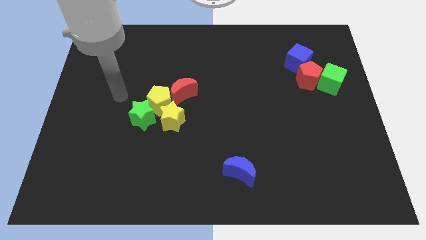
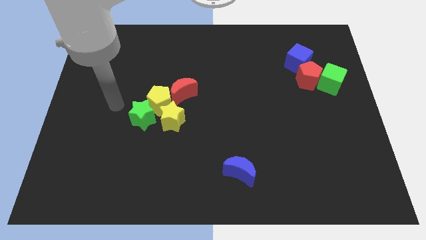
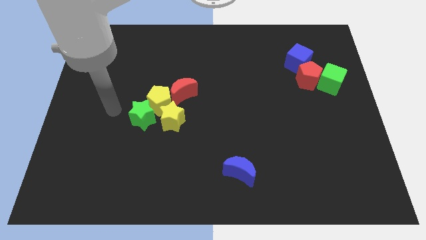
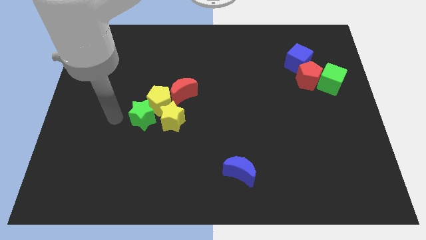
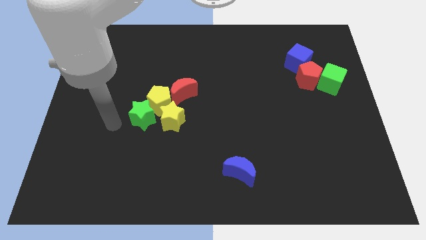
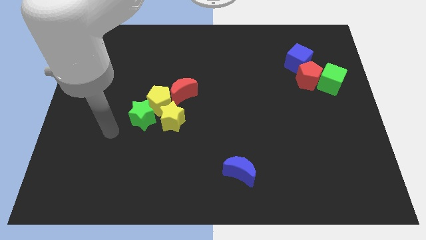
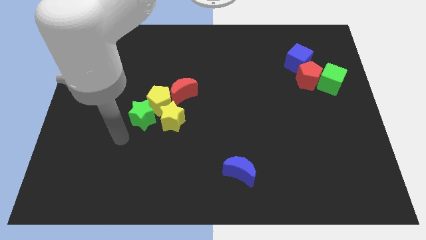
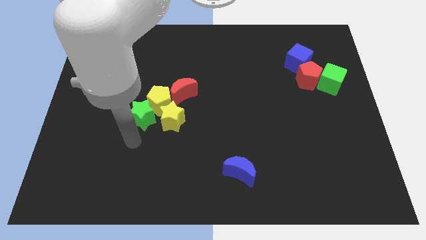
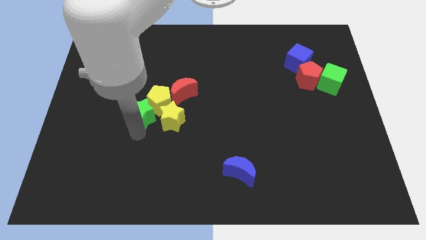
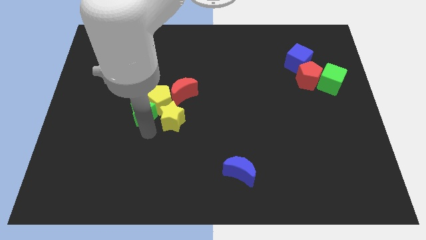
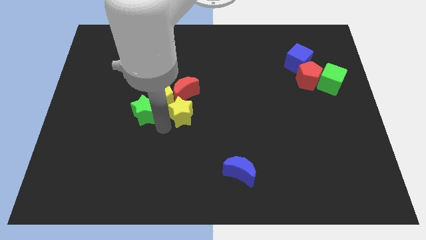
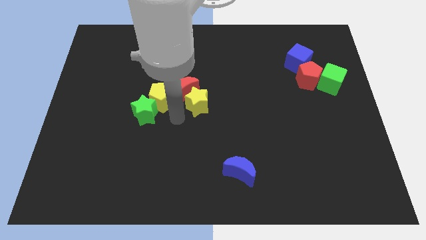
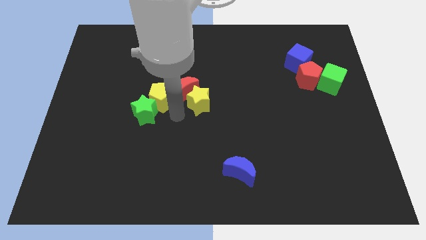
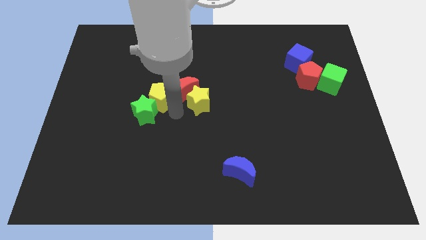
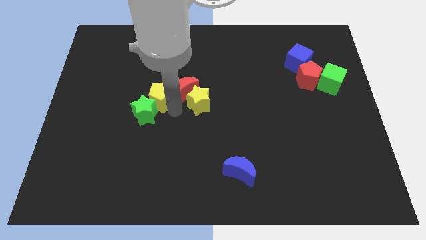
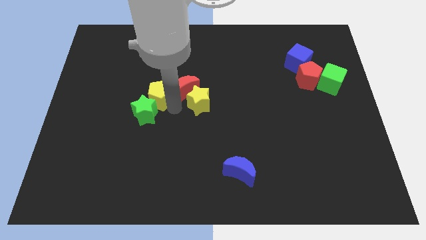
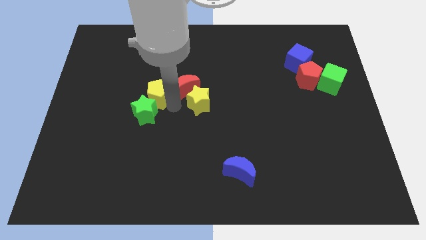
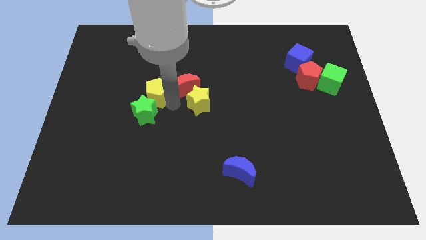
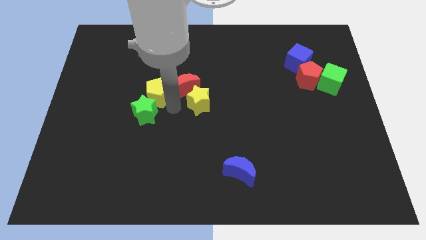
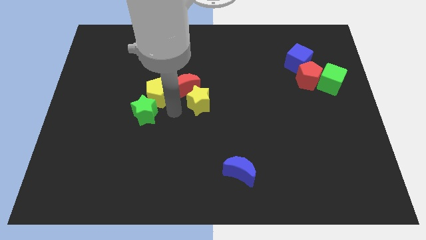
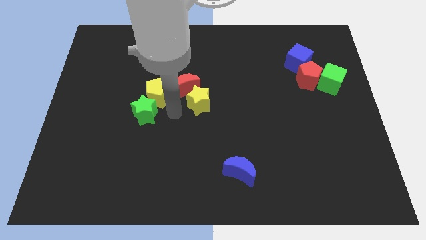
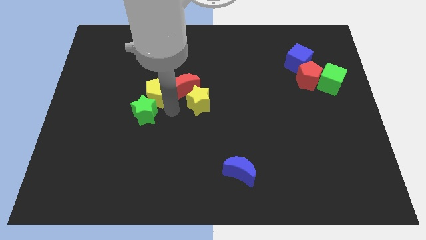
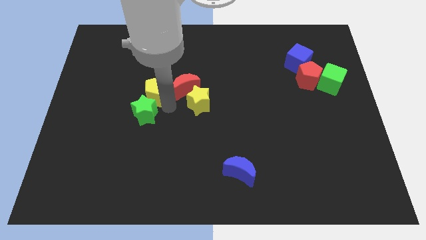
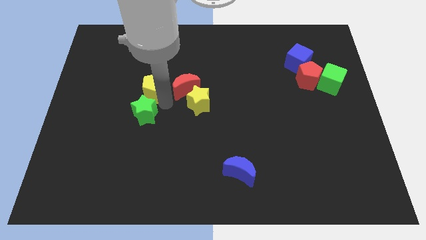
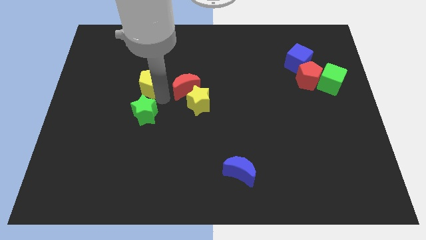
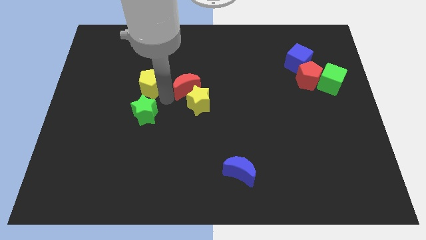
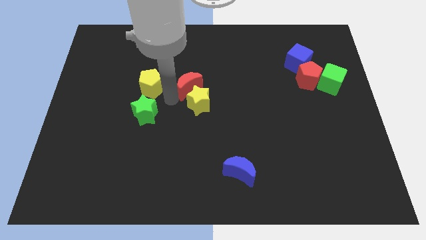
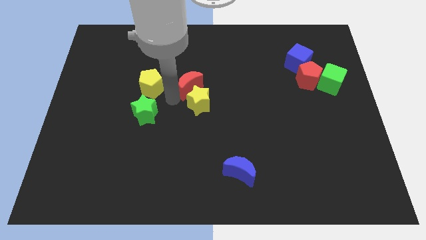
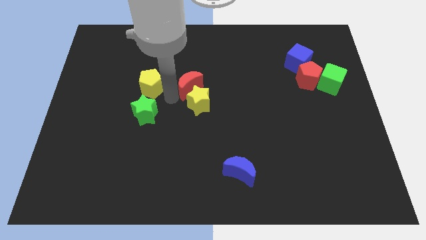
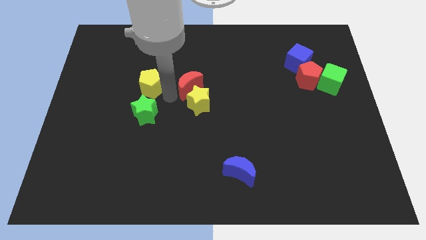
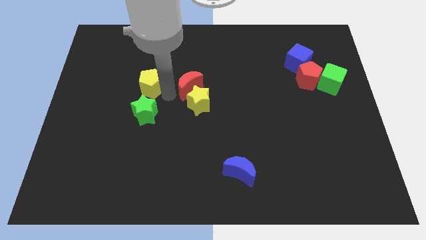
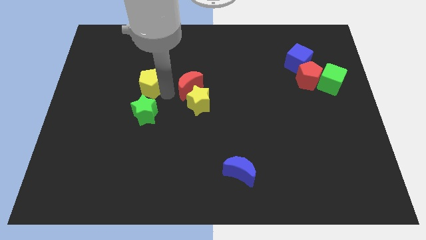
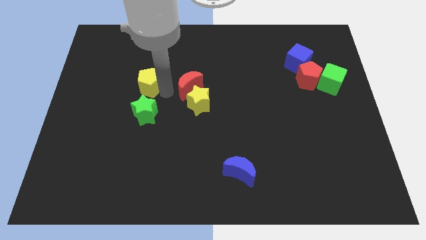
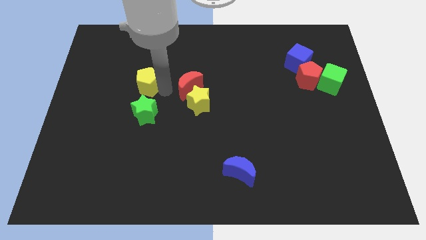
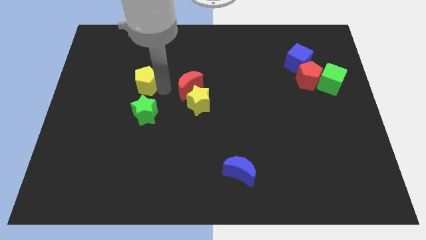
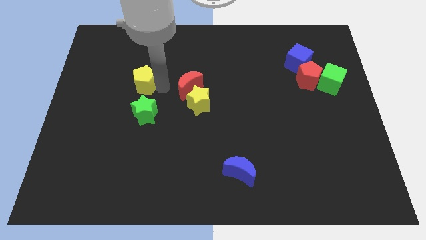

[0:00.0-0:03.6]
pull the yellow pentagon apart from the yellow star, red moon, and green star

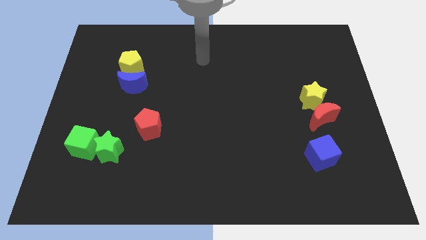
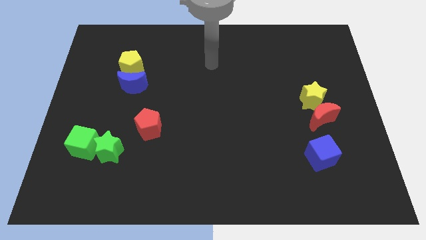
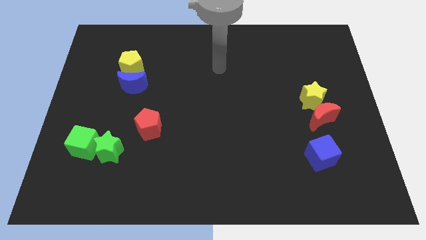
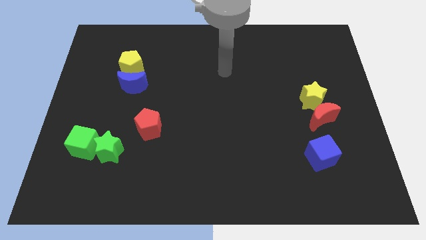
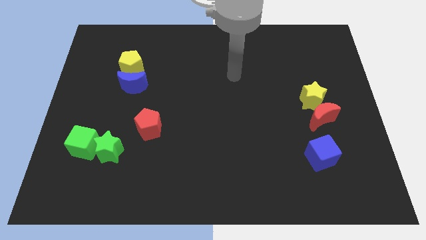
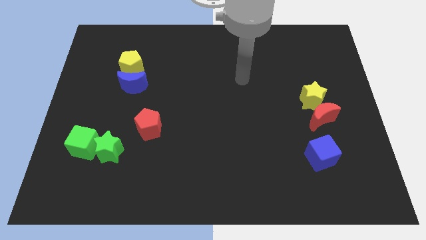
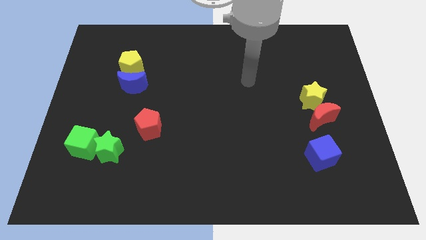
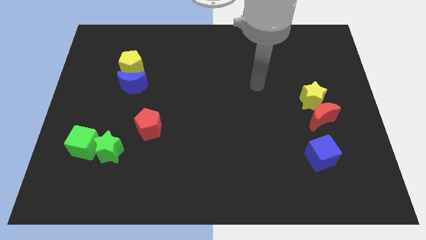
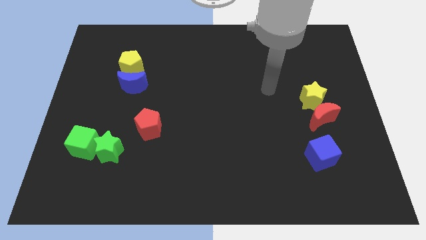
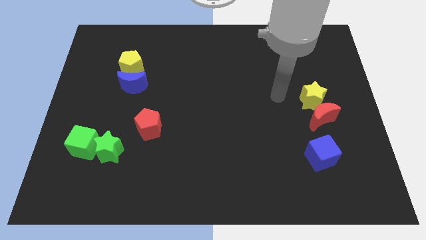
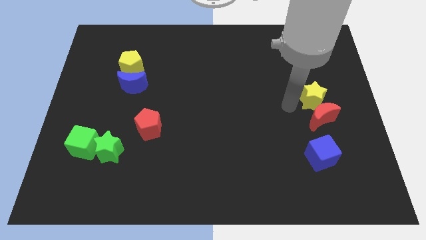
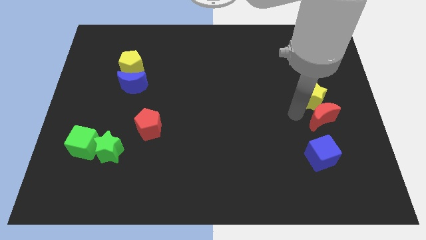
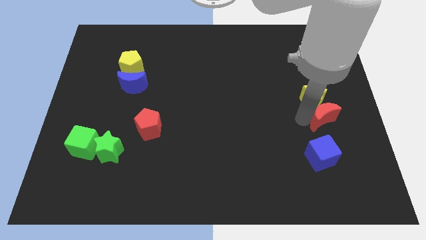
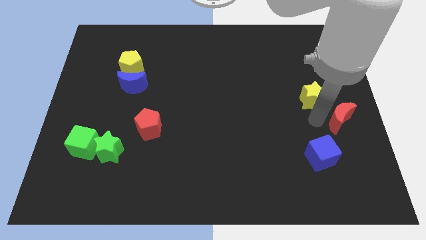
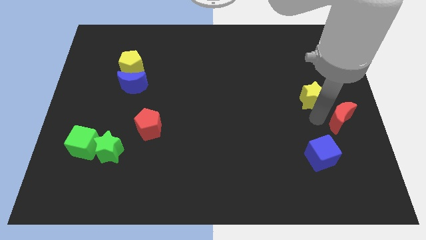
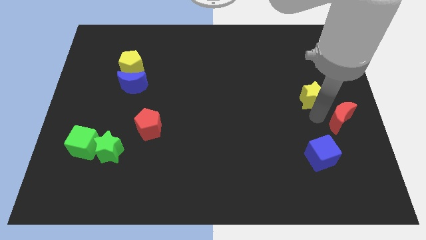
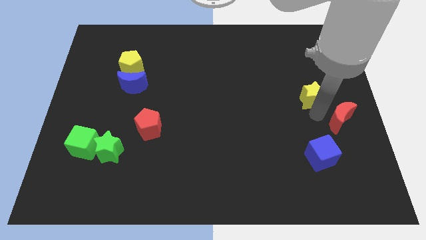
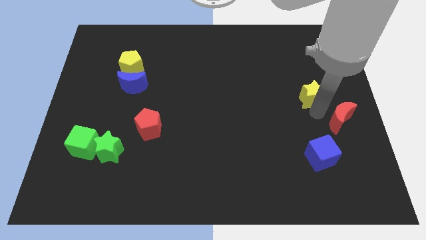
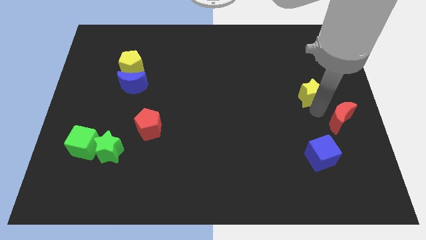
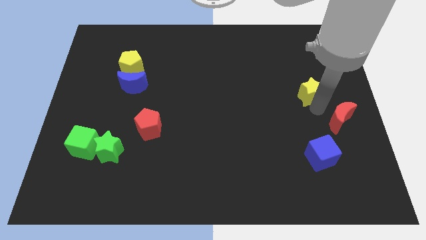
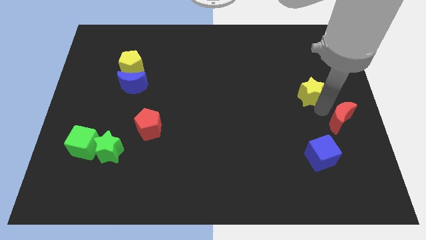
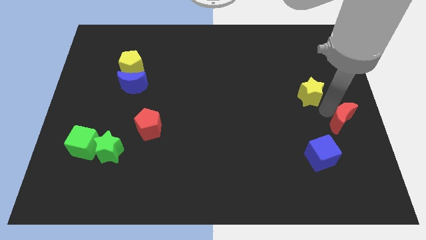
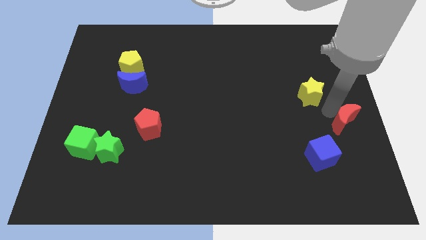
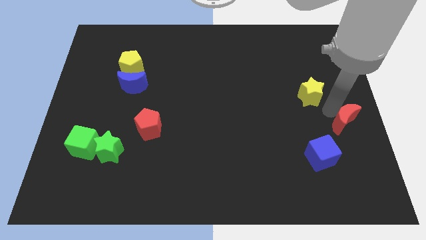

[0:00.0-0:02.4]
pull the yellow star apart from the red moon

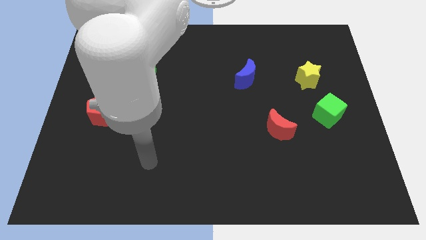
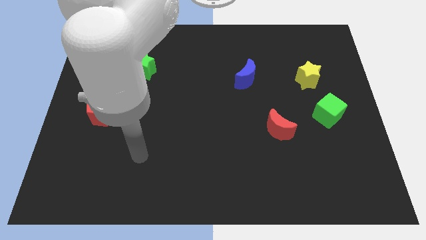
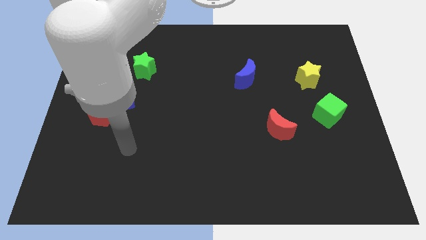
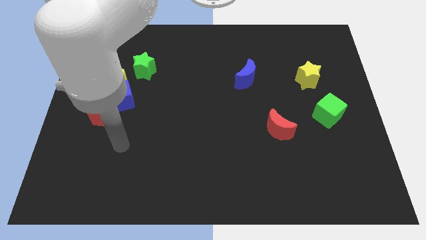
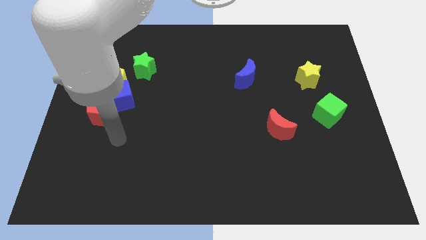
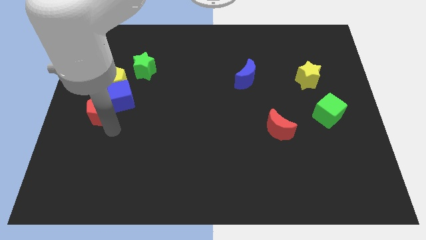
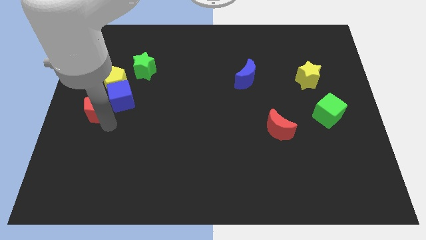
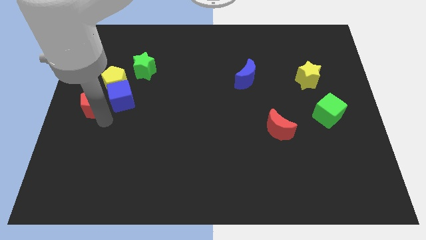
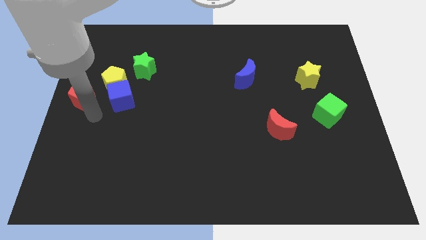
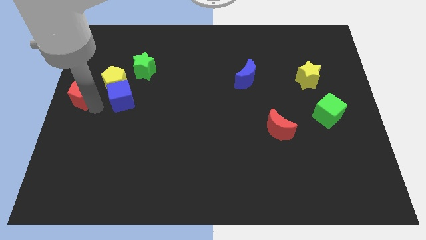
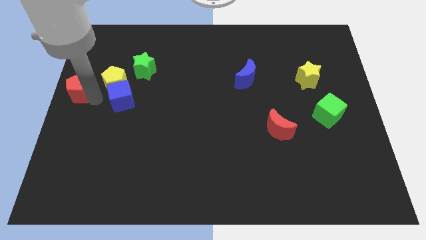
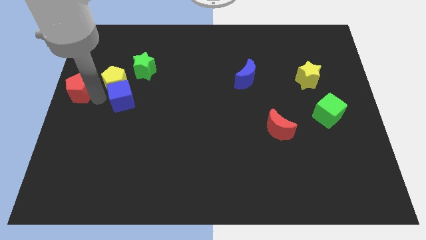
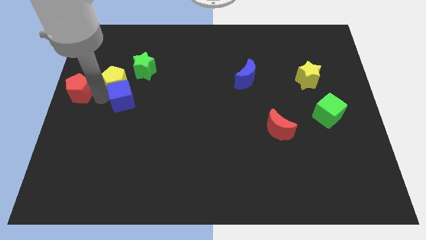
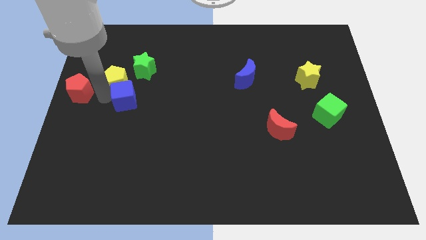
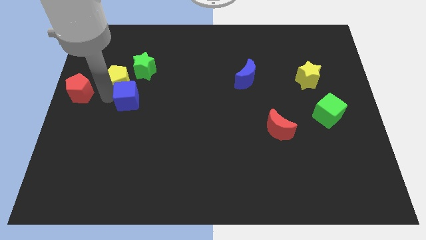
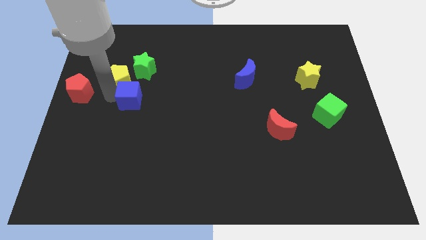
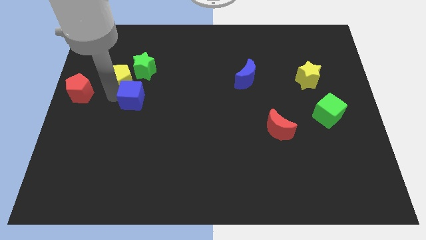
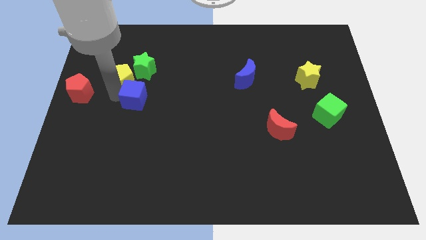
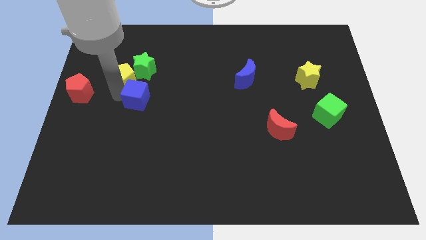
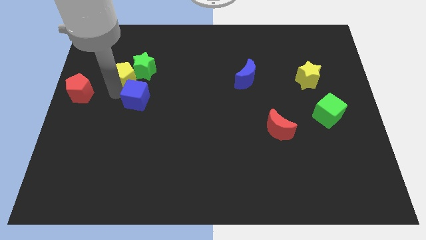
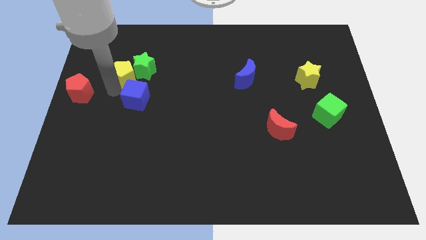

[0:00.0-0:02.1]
move the blue cube away from the yellow pentagon and red pentagon

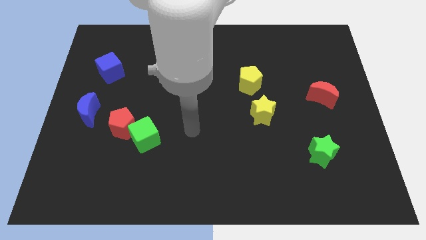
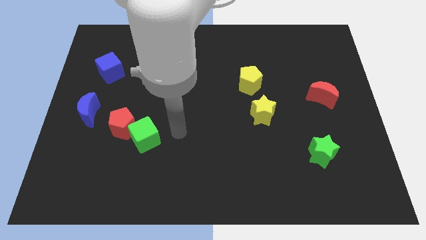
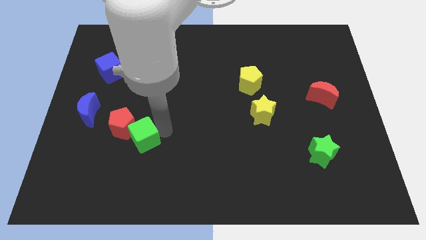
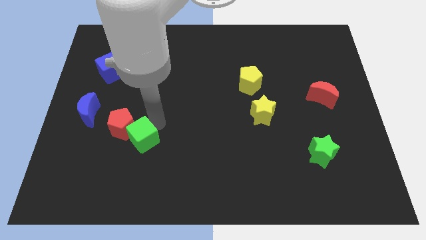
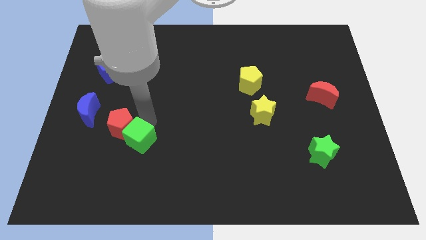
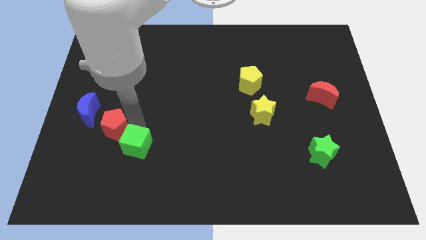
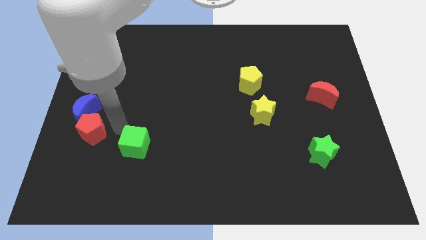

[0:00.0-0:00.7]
separate the green cube from the red pentagon

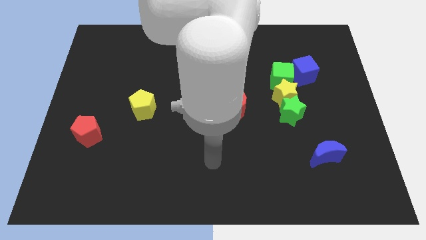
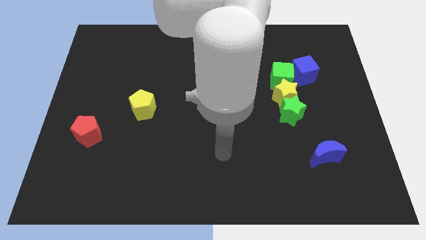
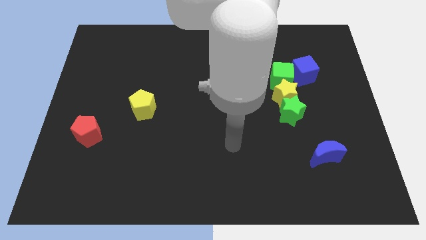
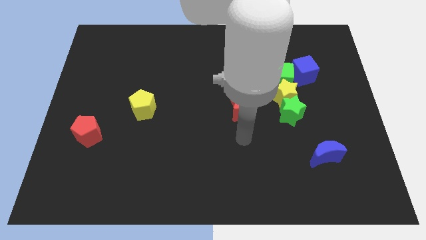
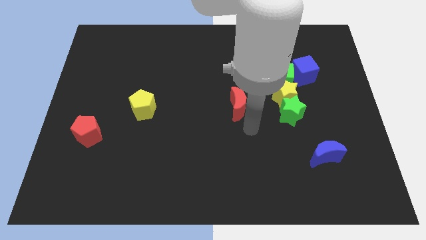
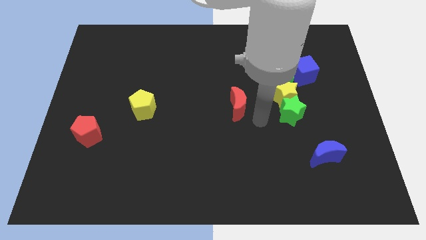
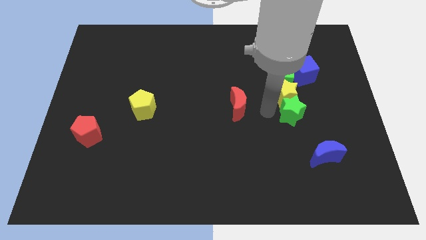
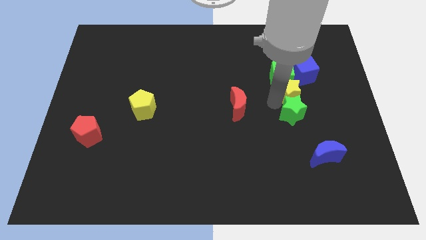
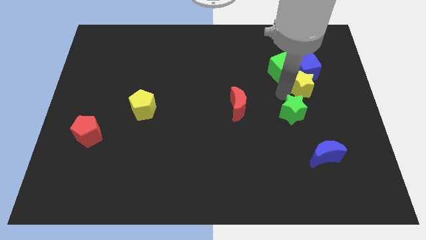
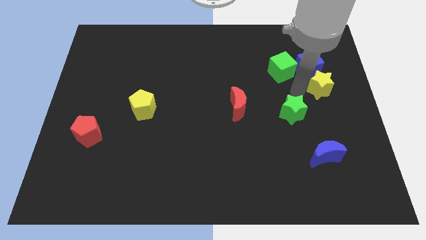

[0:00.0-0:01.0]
pull the green star apart from the yellow star
